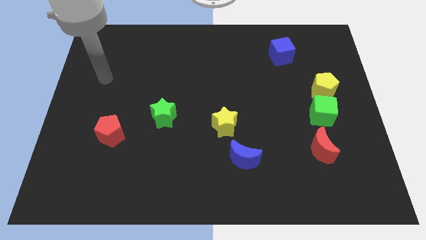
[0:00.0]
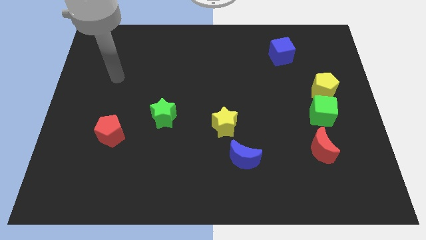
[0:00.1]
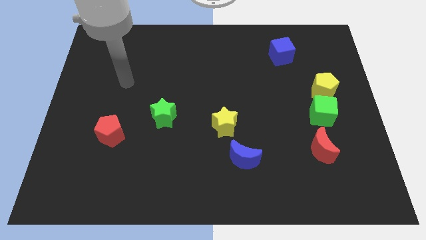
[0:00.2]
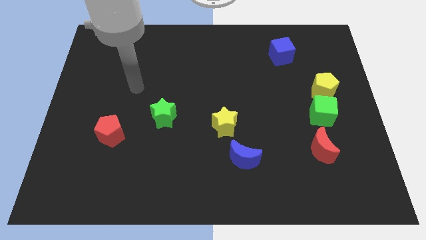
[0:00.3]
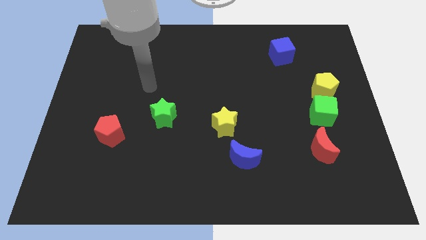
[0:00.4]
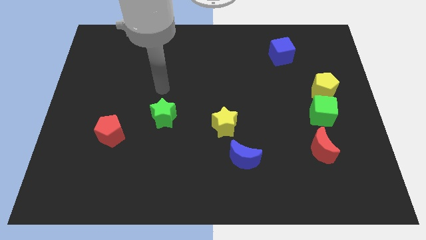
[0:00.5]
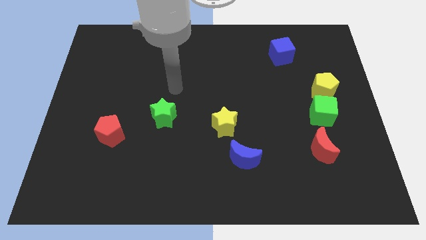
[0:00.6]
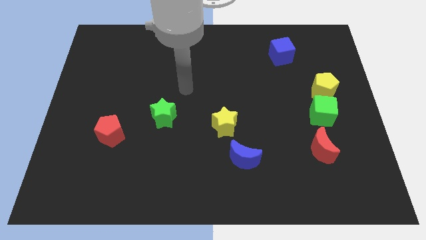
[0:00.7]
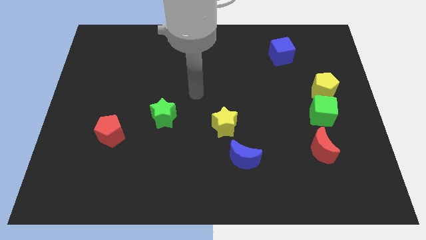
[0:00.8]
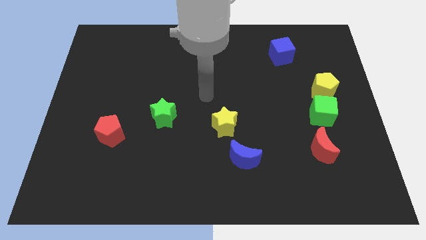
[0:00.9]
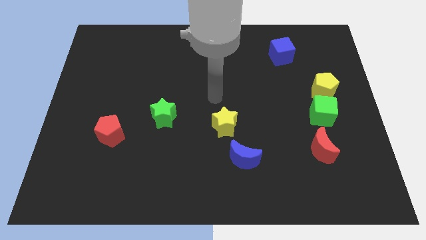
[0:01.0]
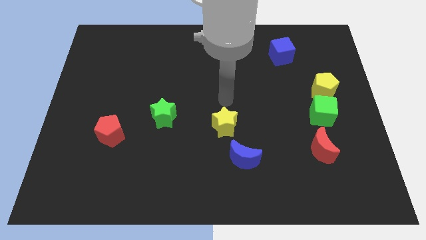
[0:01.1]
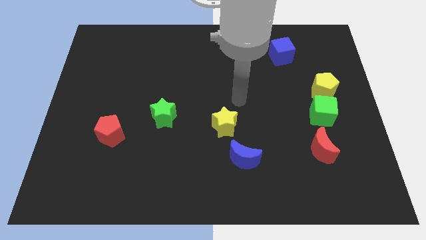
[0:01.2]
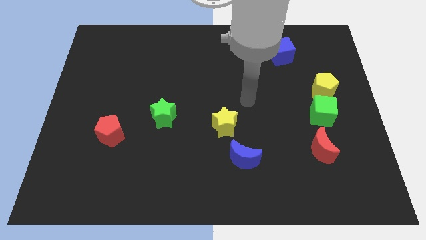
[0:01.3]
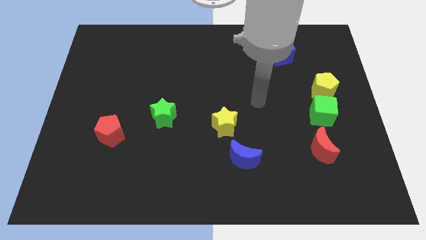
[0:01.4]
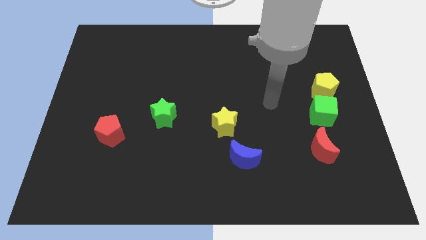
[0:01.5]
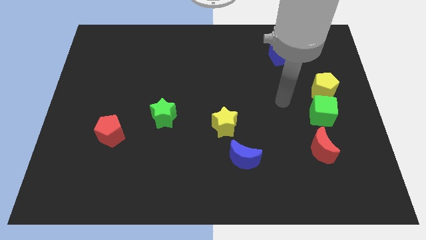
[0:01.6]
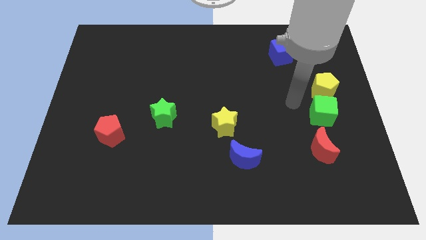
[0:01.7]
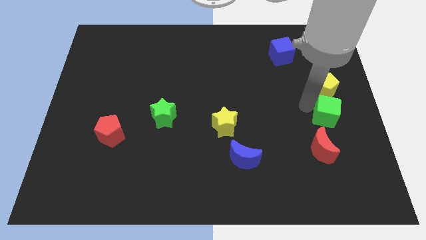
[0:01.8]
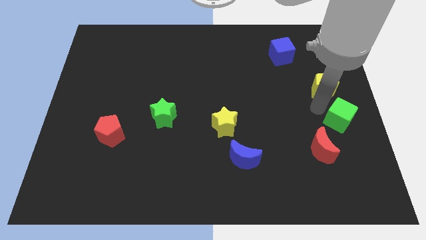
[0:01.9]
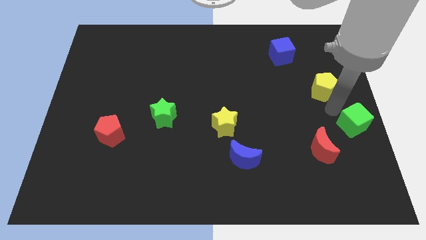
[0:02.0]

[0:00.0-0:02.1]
separate the yellow pentagon from the green cube

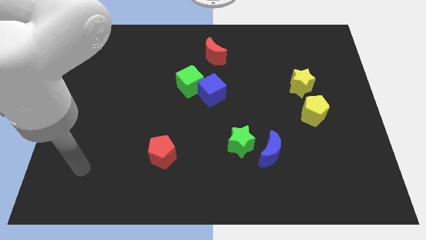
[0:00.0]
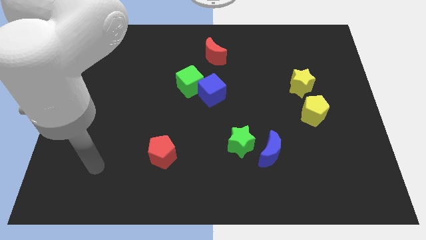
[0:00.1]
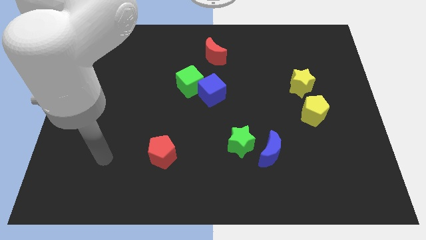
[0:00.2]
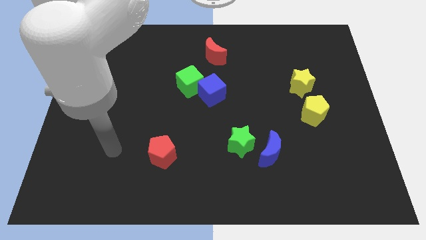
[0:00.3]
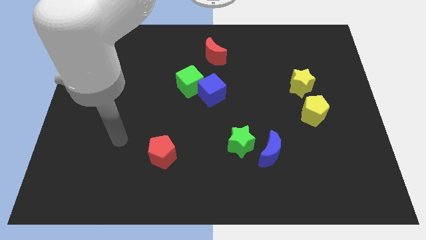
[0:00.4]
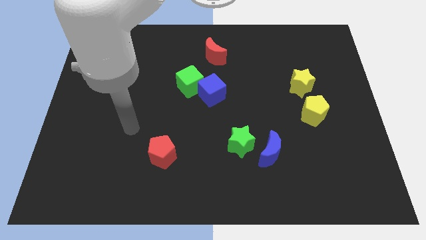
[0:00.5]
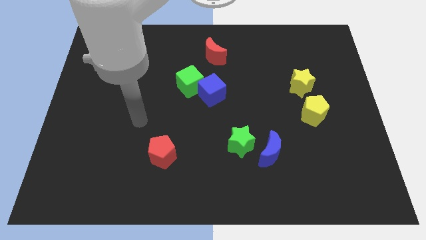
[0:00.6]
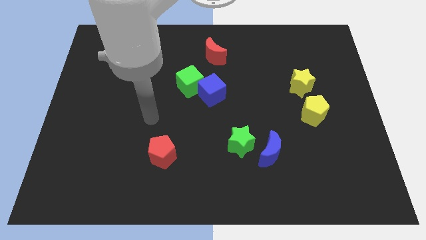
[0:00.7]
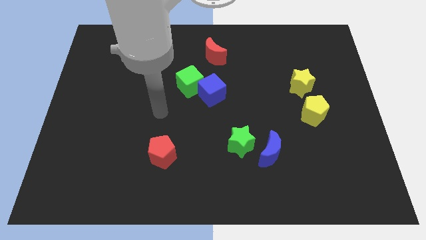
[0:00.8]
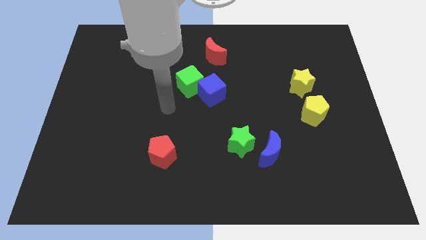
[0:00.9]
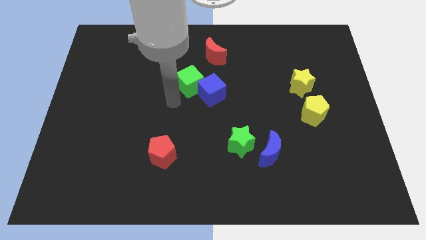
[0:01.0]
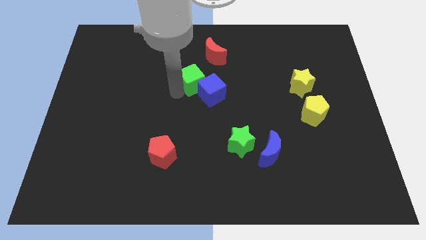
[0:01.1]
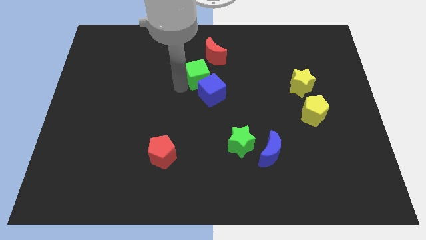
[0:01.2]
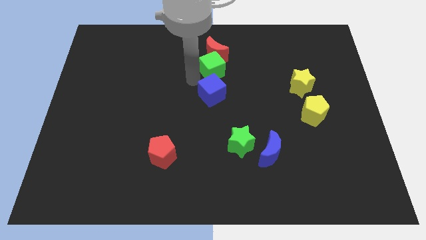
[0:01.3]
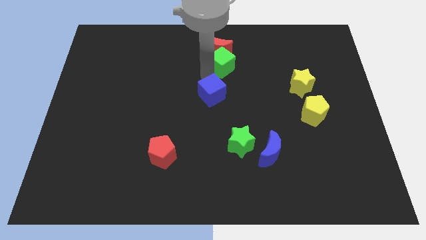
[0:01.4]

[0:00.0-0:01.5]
move the blue cube away from the green cube

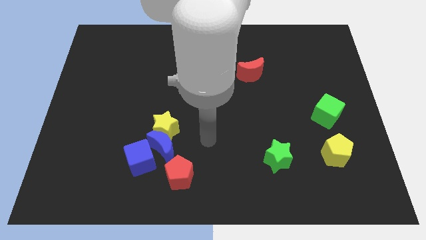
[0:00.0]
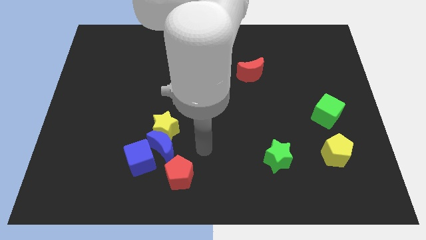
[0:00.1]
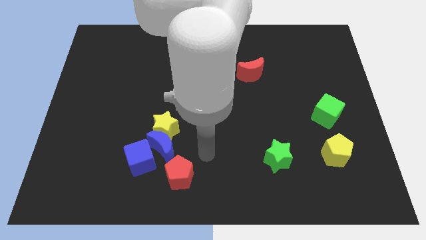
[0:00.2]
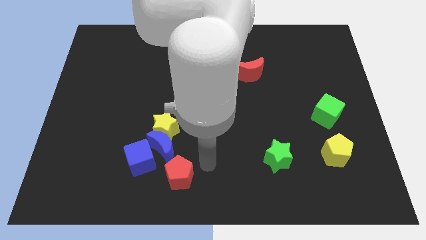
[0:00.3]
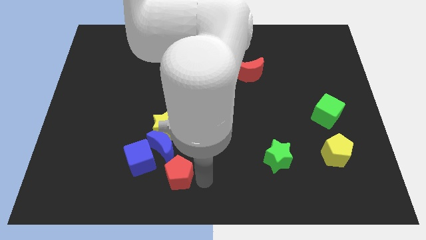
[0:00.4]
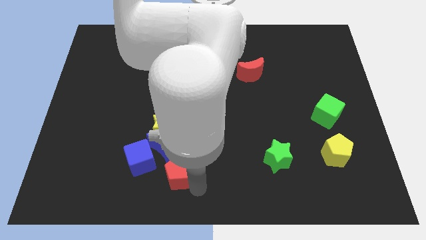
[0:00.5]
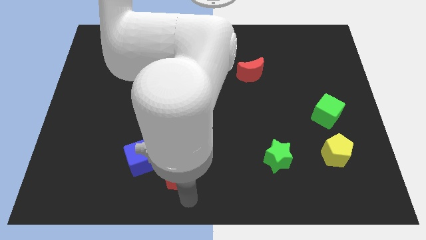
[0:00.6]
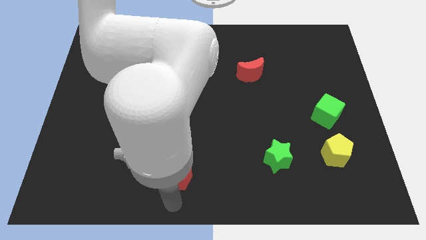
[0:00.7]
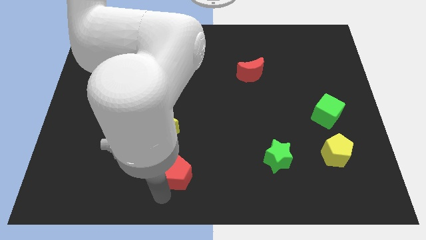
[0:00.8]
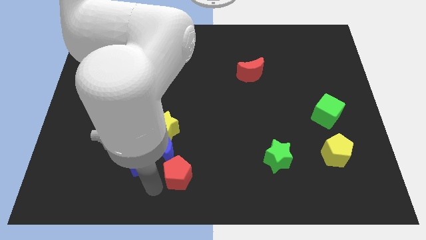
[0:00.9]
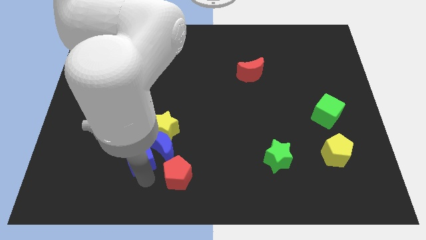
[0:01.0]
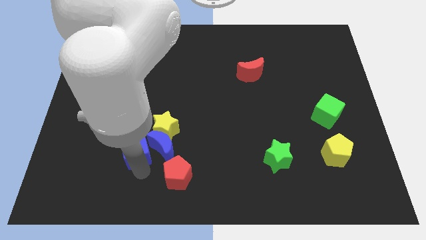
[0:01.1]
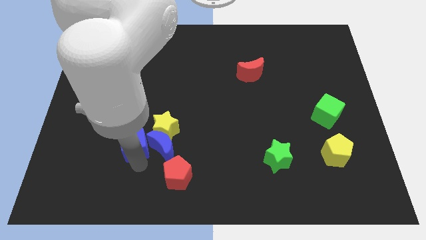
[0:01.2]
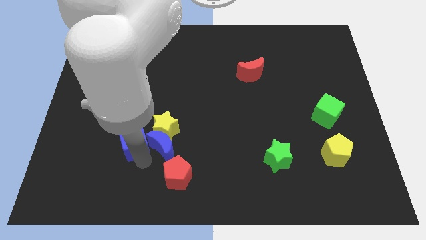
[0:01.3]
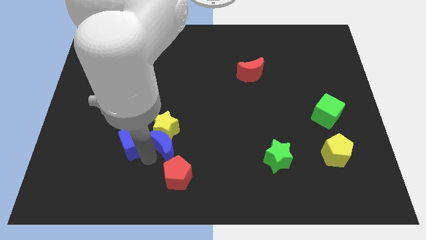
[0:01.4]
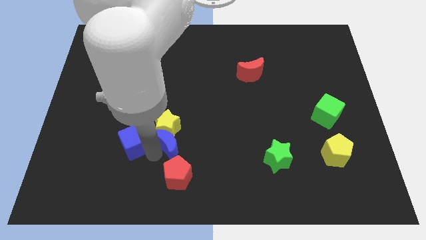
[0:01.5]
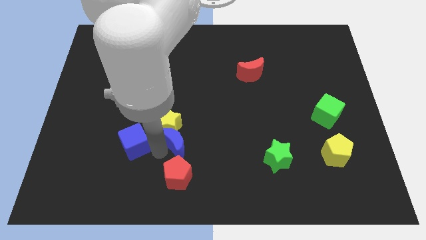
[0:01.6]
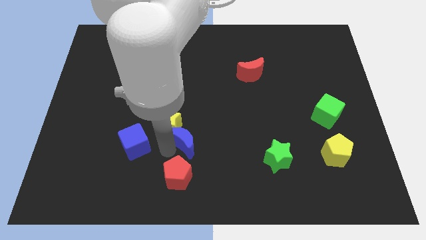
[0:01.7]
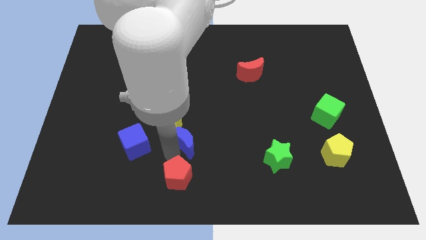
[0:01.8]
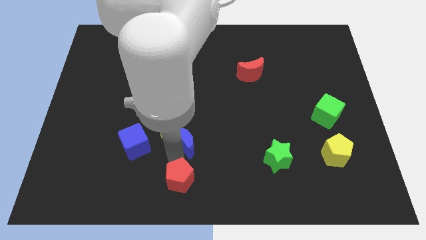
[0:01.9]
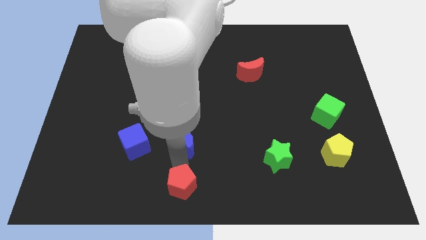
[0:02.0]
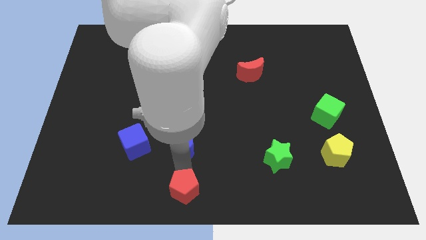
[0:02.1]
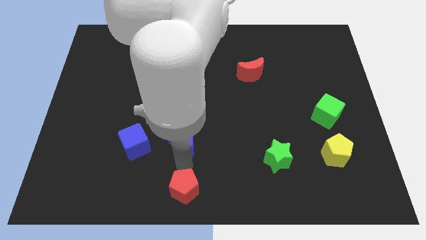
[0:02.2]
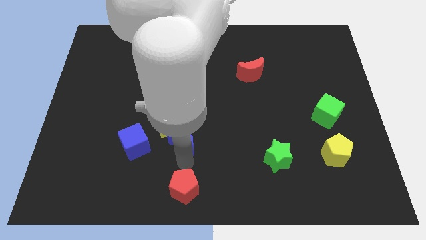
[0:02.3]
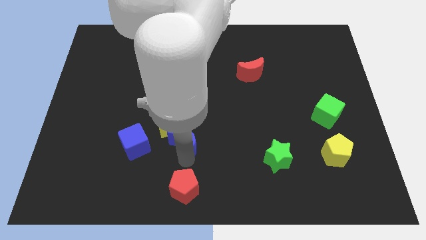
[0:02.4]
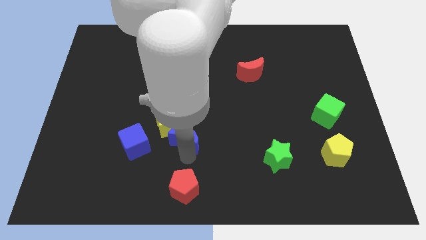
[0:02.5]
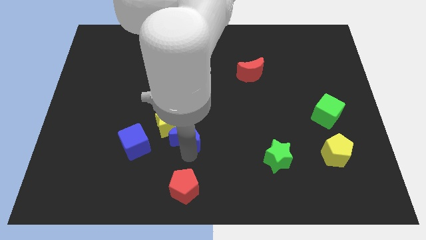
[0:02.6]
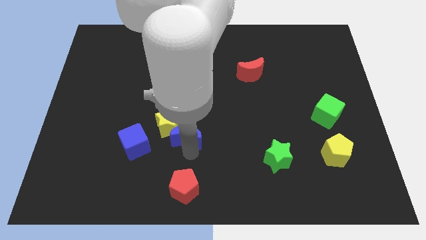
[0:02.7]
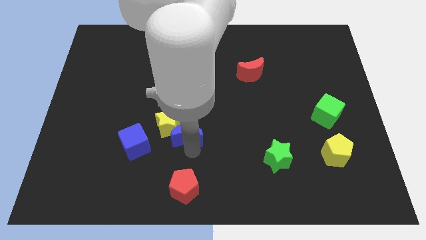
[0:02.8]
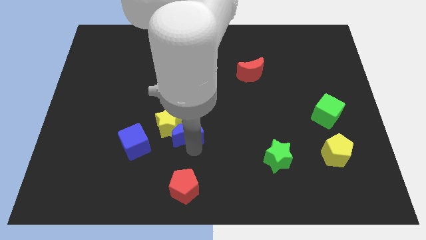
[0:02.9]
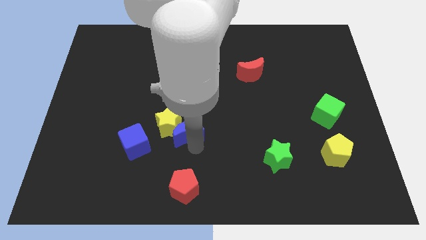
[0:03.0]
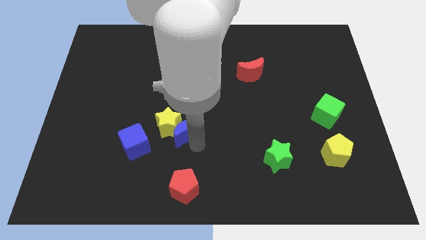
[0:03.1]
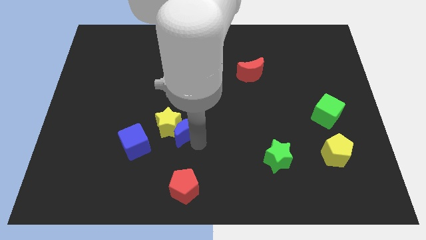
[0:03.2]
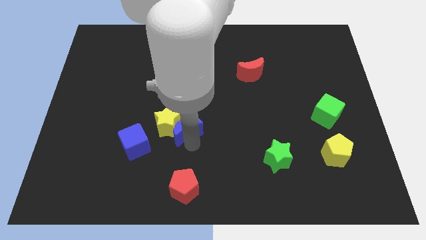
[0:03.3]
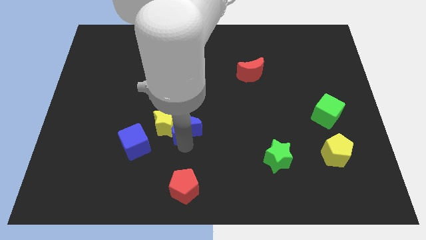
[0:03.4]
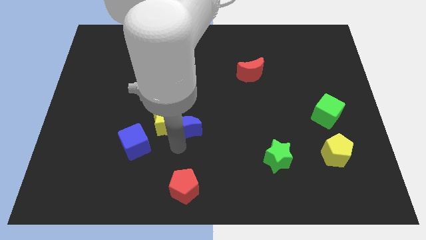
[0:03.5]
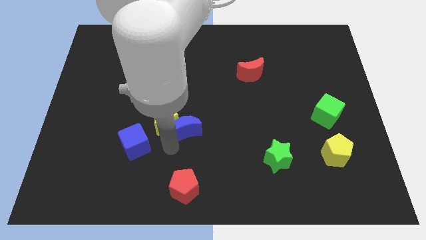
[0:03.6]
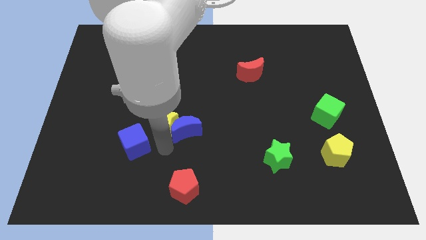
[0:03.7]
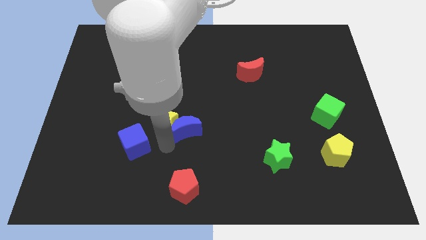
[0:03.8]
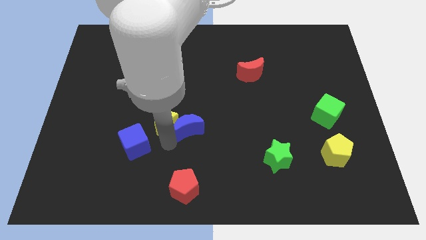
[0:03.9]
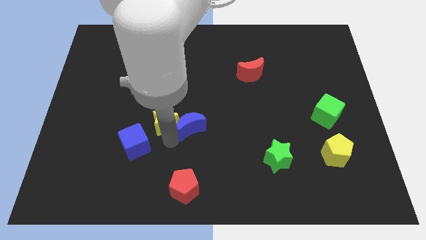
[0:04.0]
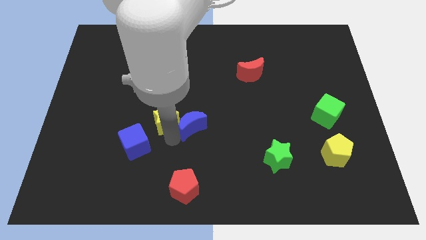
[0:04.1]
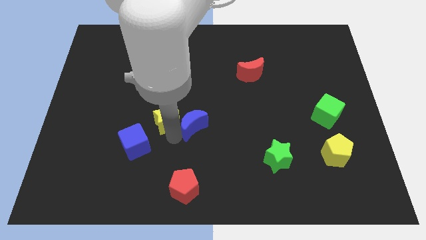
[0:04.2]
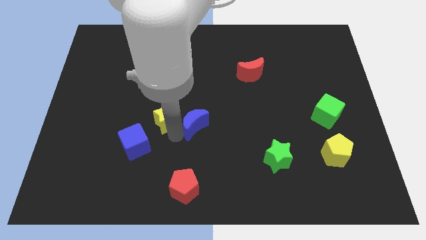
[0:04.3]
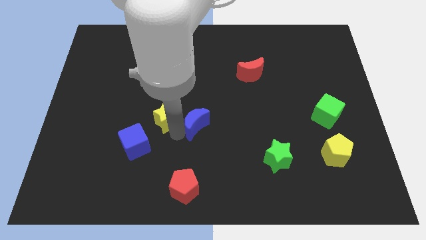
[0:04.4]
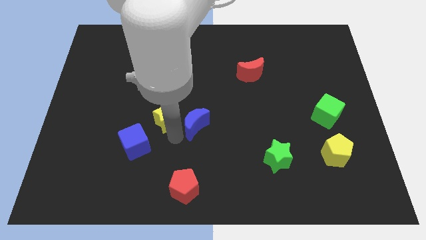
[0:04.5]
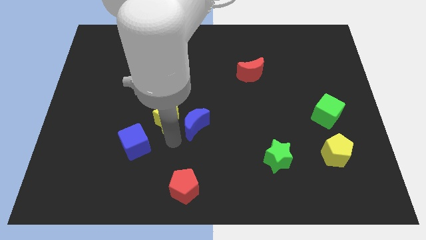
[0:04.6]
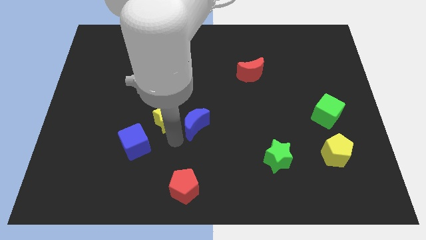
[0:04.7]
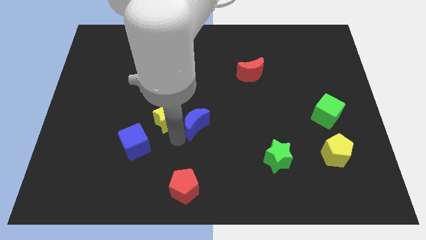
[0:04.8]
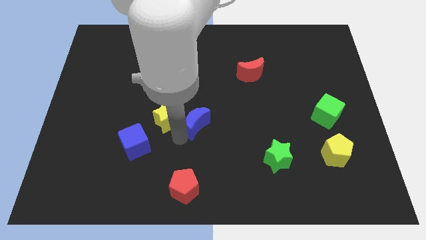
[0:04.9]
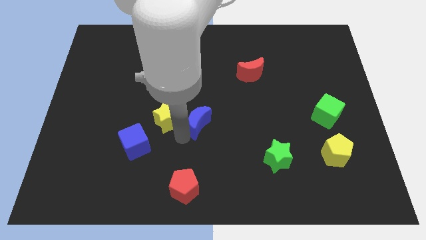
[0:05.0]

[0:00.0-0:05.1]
move the blue moon away from the clump

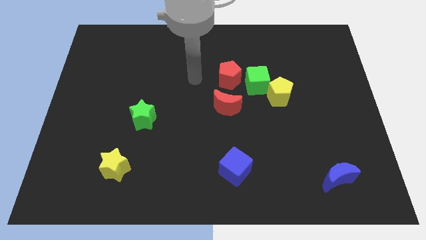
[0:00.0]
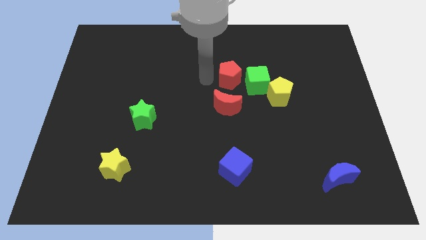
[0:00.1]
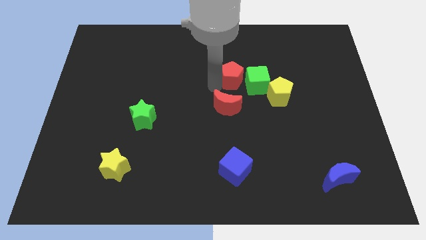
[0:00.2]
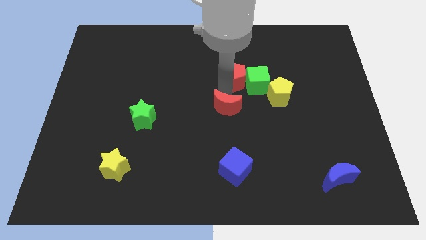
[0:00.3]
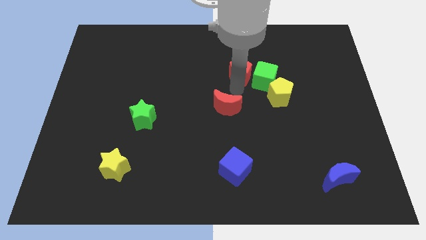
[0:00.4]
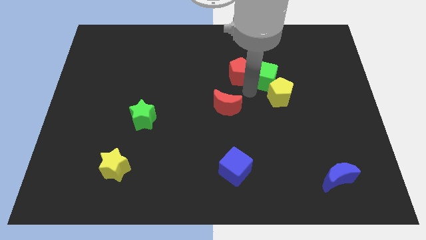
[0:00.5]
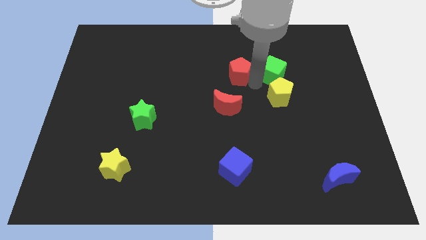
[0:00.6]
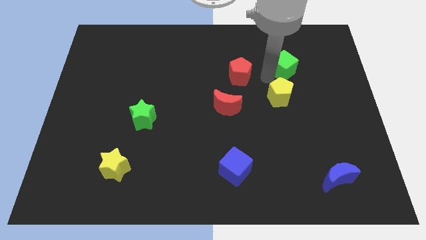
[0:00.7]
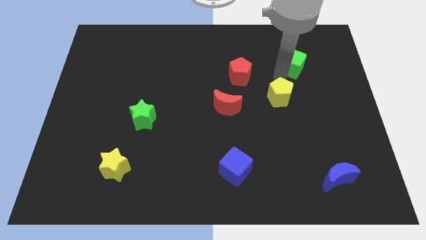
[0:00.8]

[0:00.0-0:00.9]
pull the yellow pentagon apart from the green cube

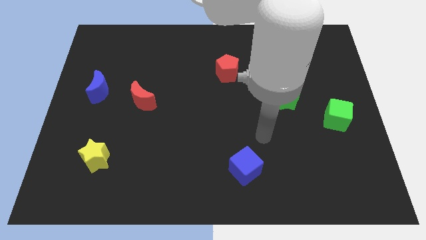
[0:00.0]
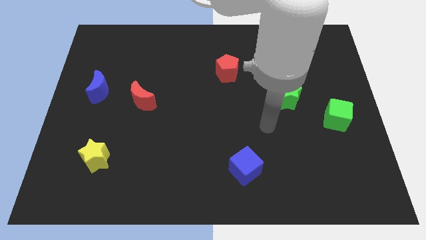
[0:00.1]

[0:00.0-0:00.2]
move the green star away from the yellow pentagon
